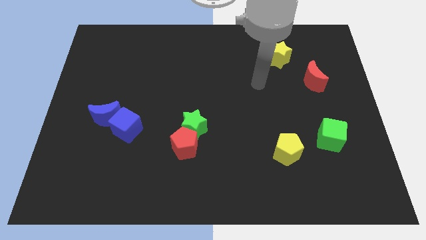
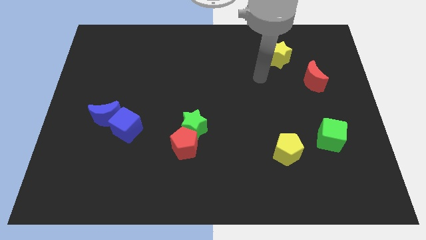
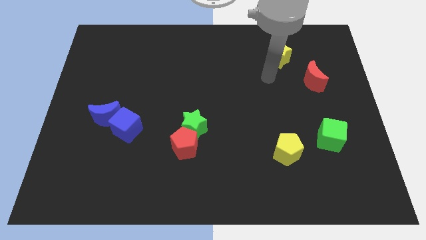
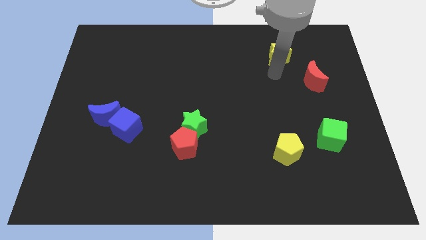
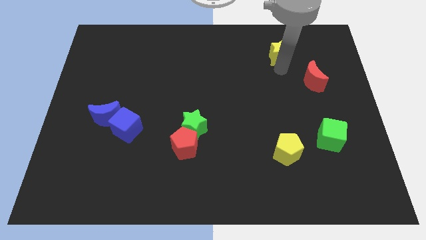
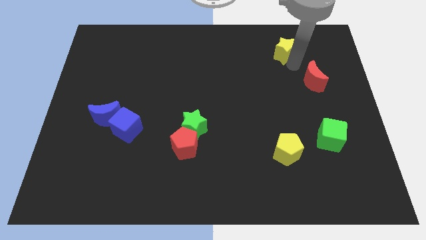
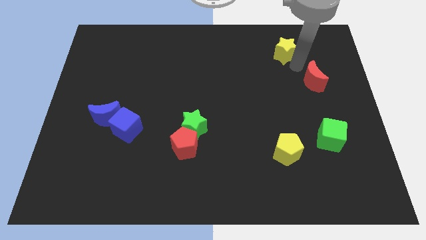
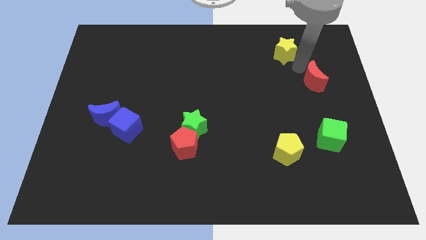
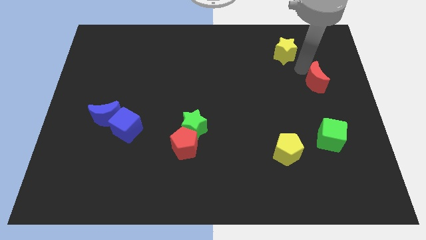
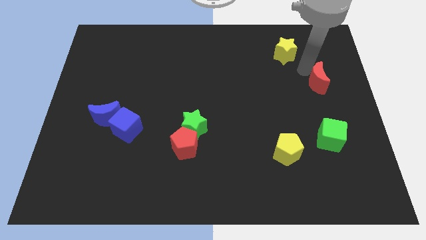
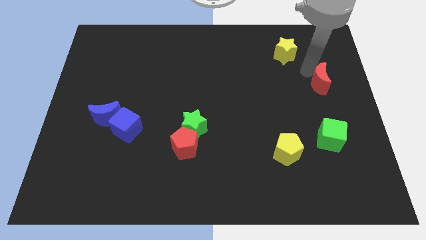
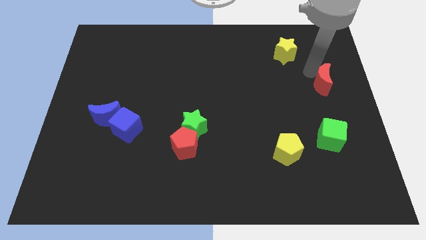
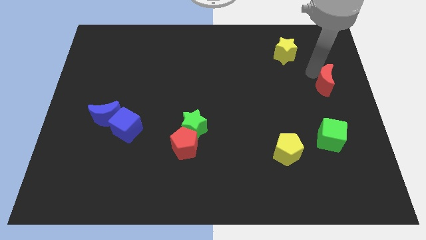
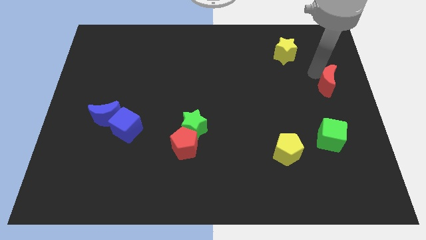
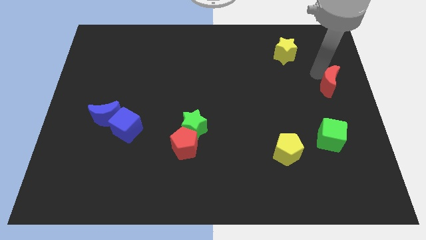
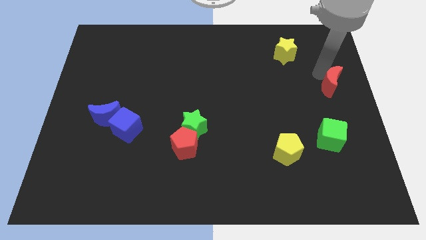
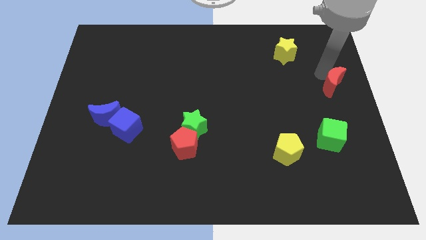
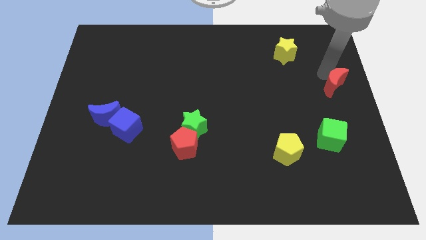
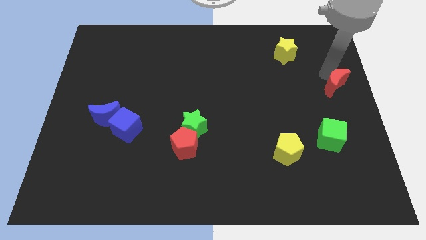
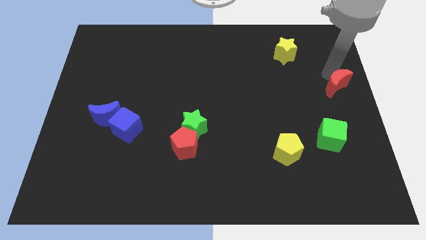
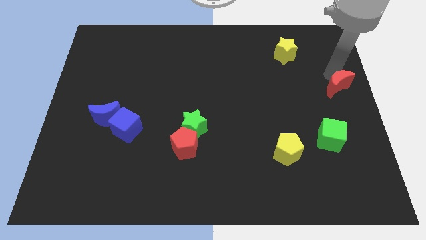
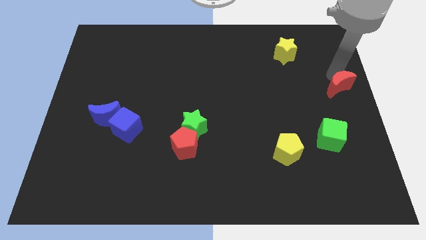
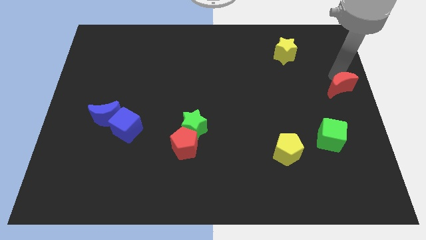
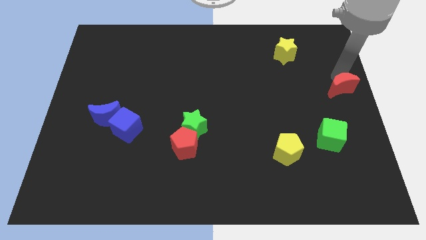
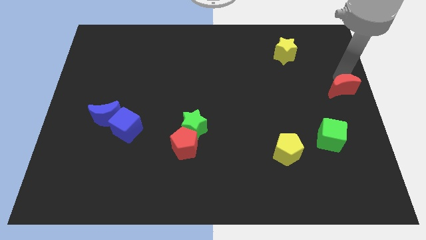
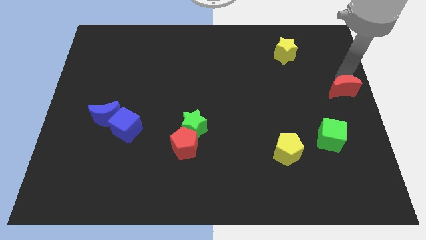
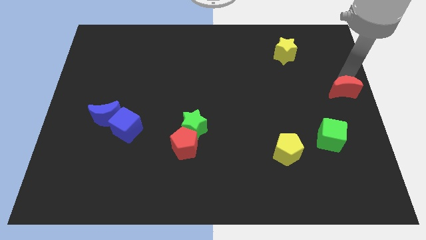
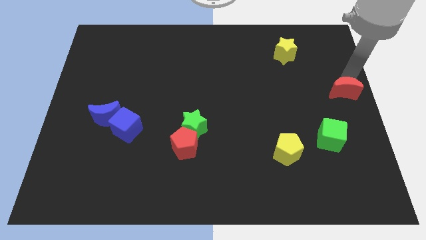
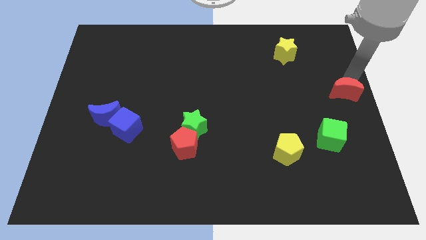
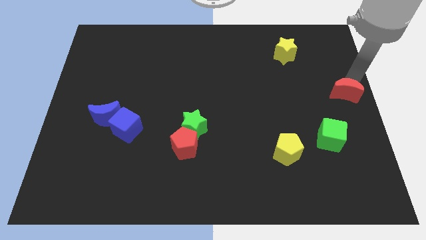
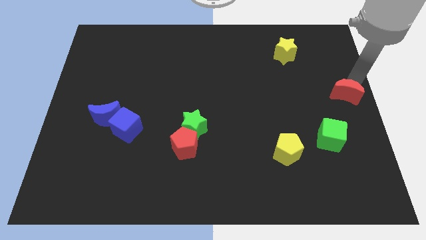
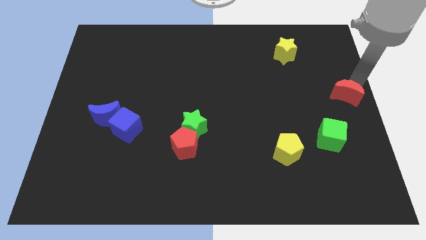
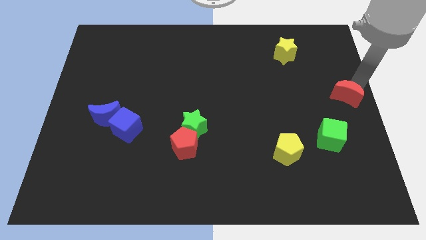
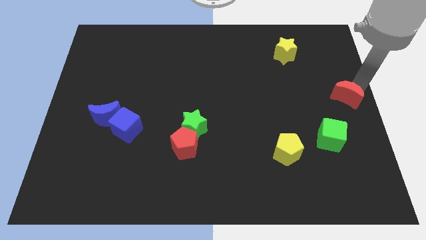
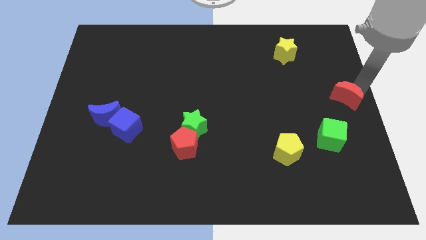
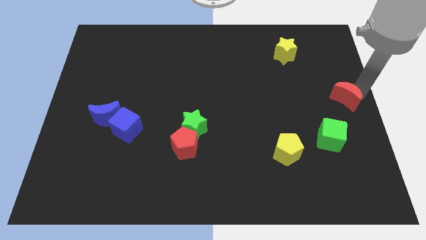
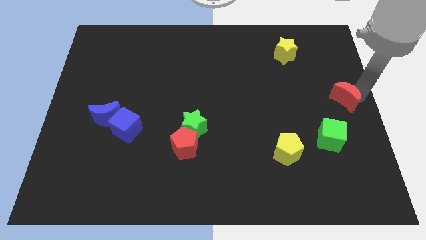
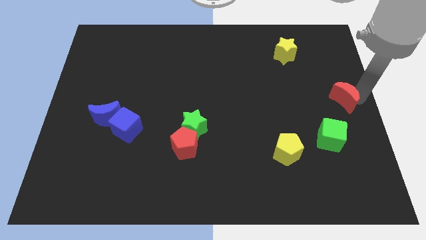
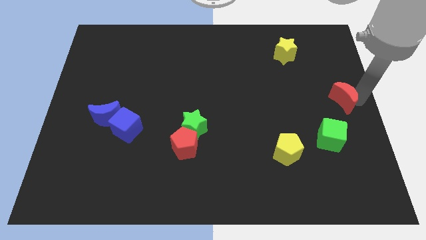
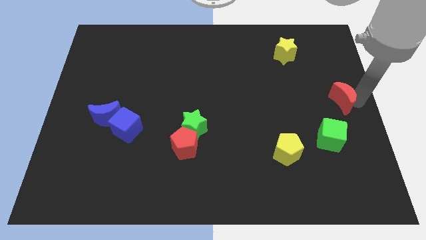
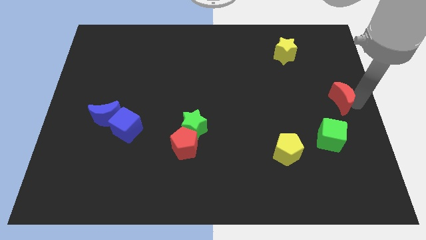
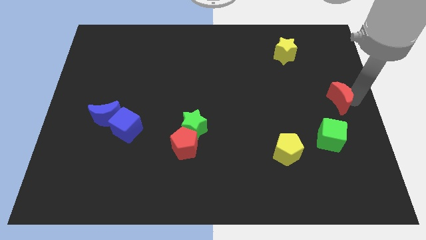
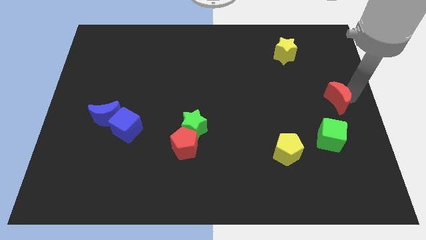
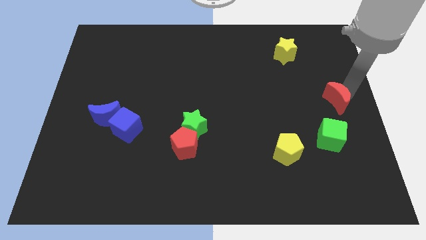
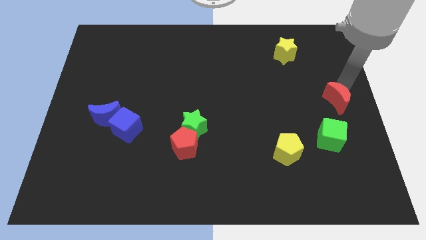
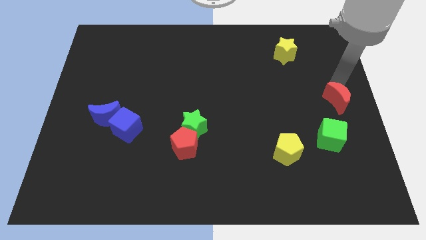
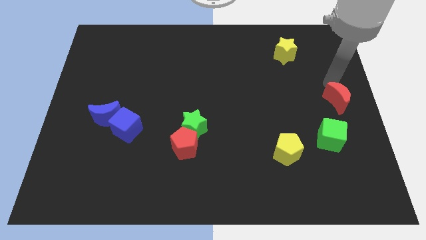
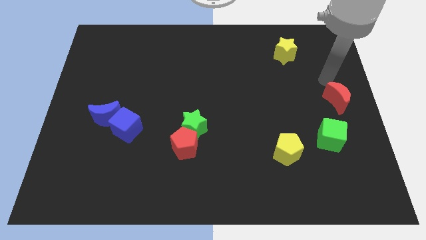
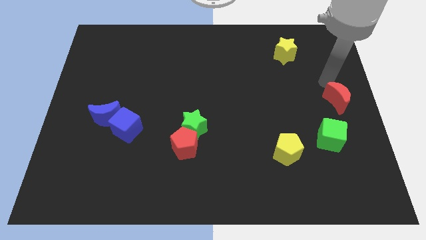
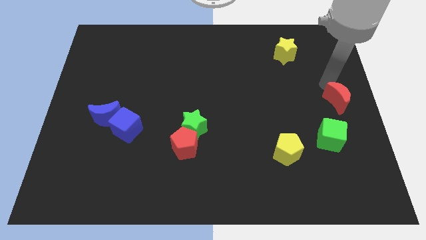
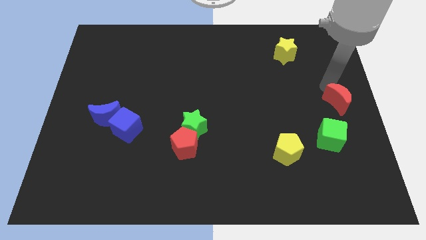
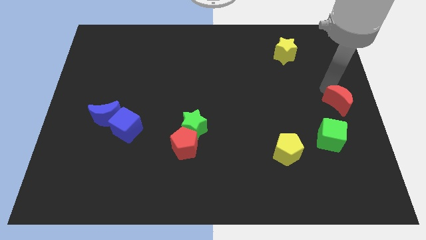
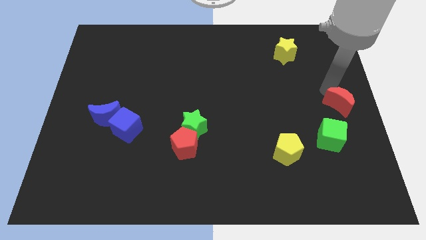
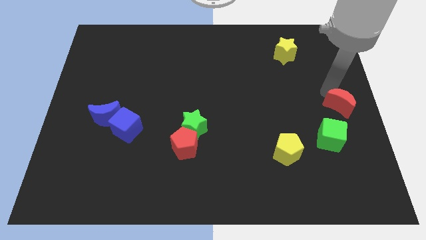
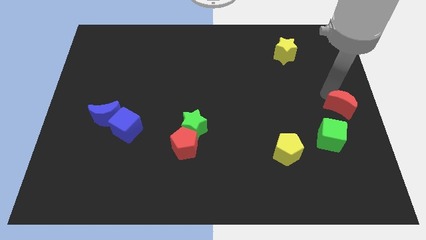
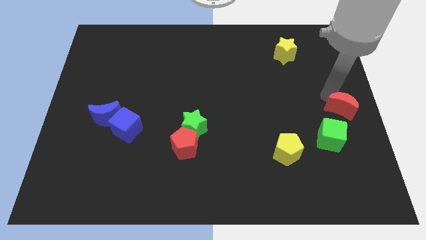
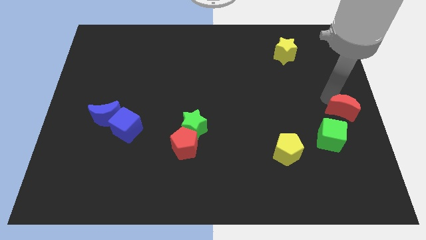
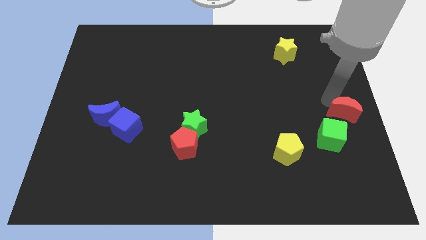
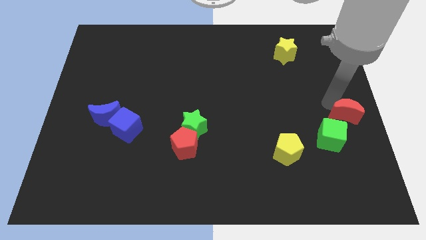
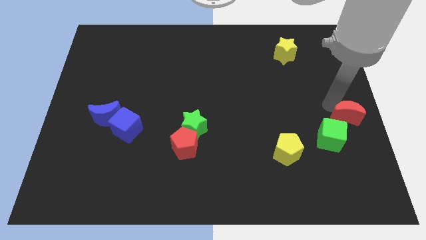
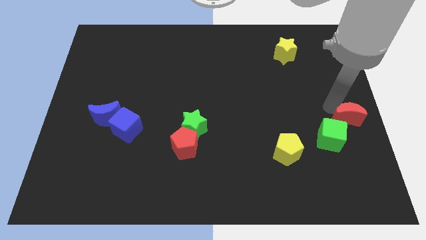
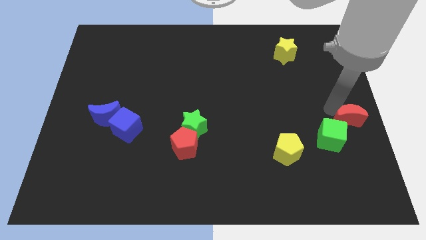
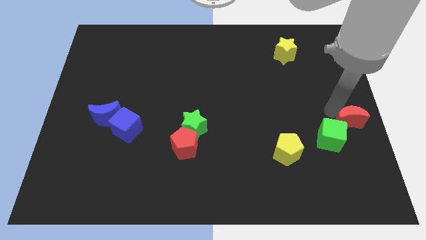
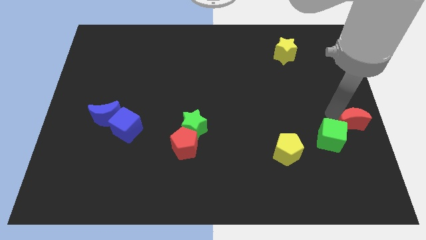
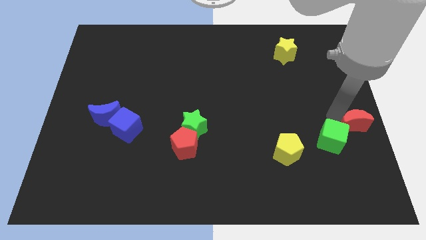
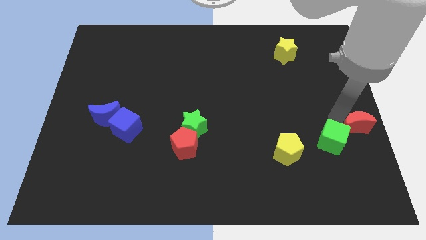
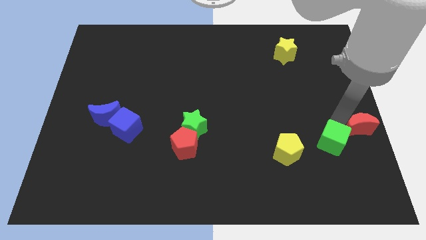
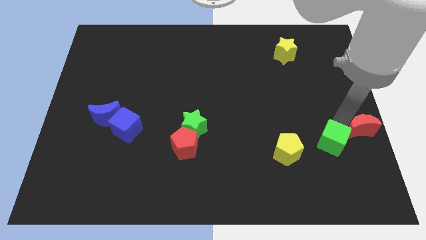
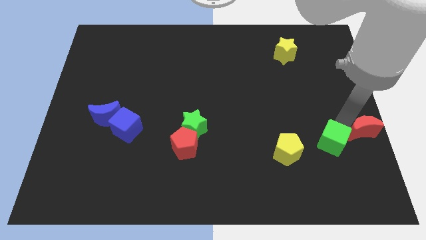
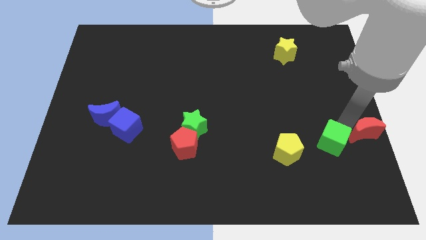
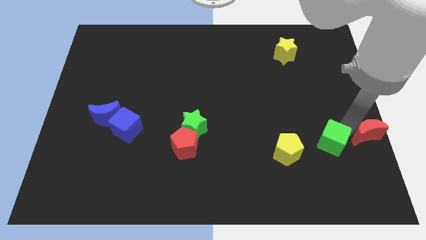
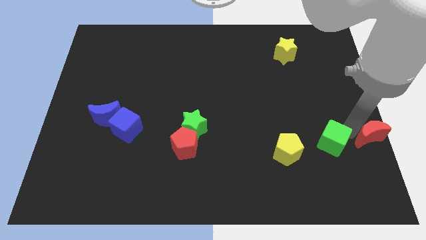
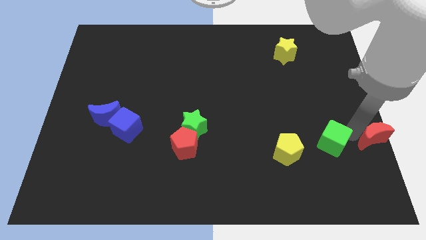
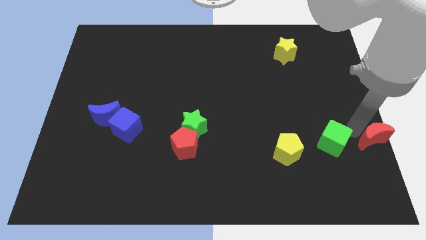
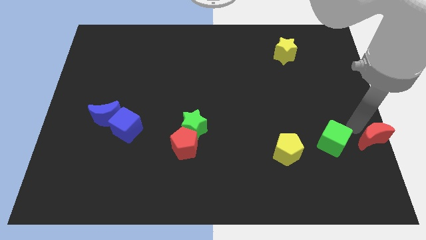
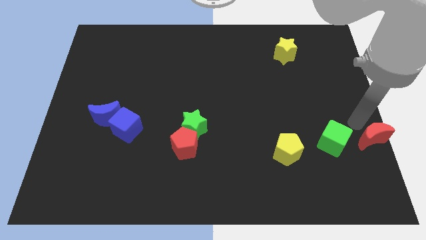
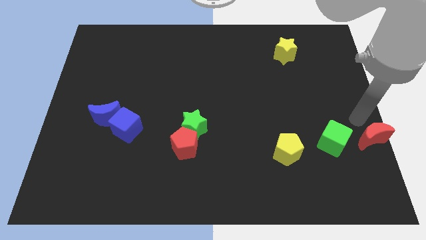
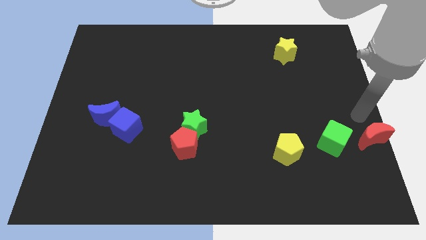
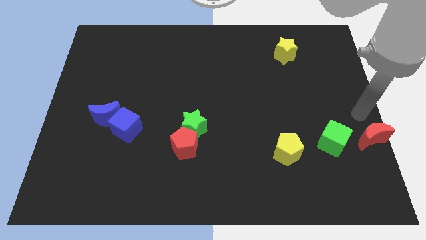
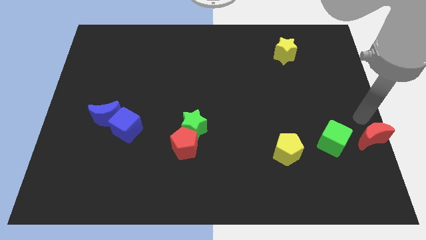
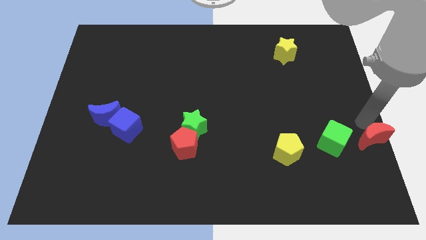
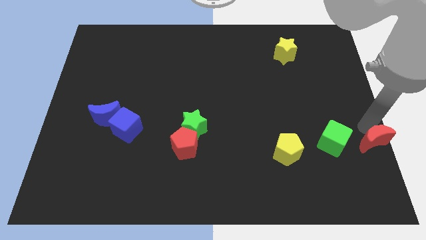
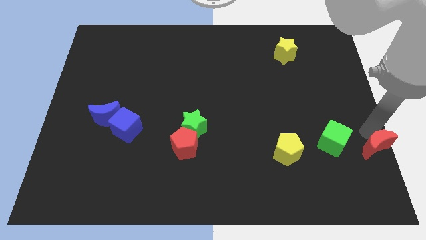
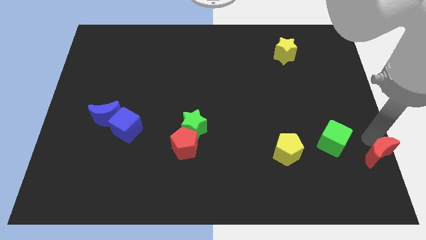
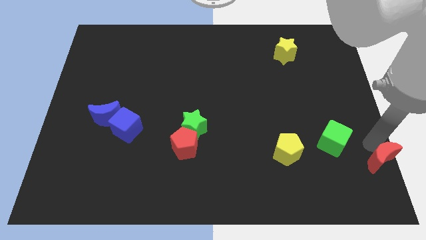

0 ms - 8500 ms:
put the red moon to the lower right corner
